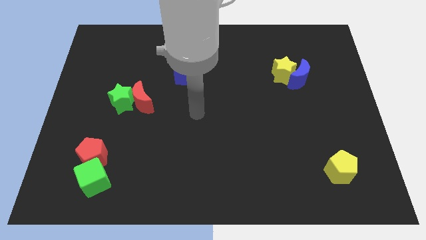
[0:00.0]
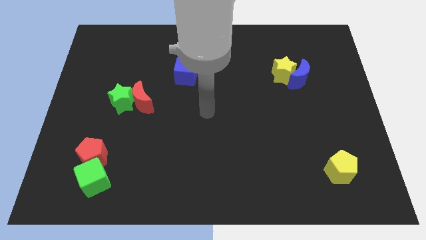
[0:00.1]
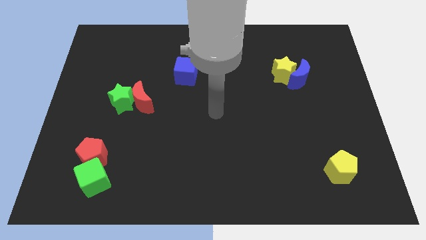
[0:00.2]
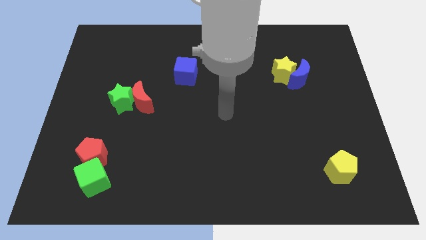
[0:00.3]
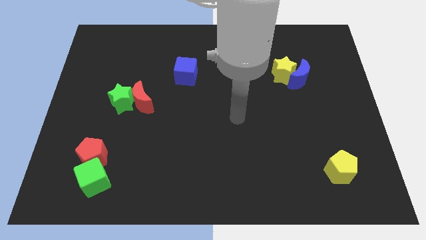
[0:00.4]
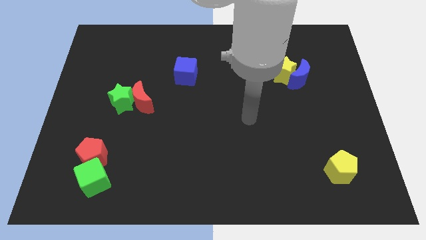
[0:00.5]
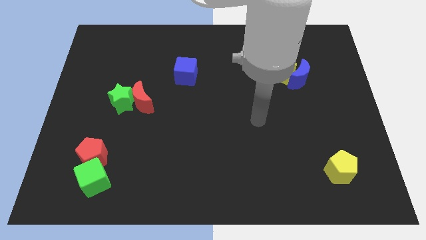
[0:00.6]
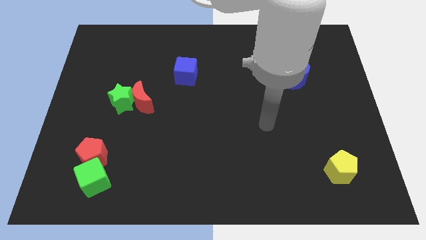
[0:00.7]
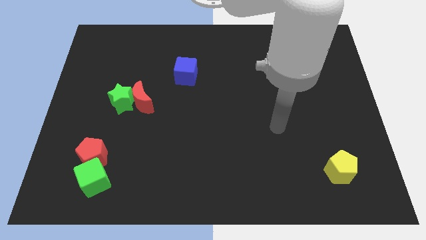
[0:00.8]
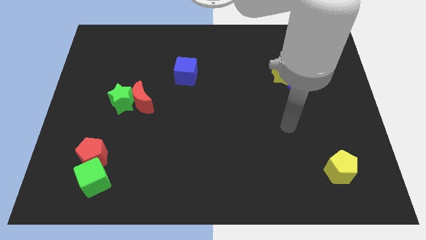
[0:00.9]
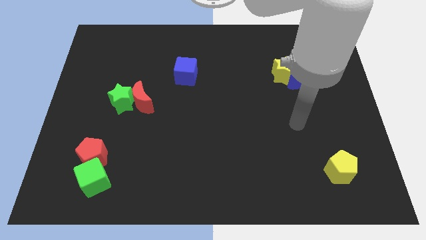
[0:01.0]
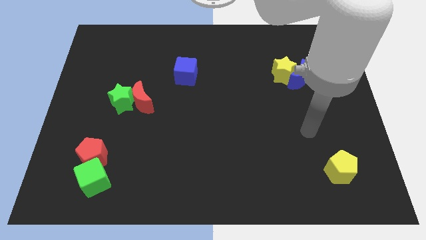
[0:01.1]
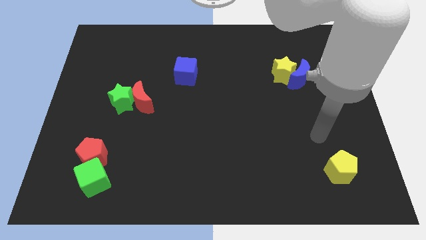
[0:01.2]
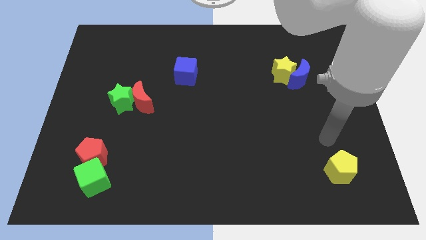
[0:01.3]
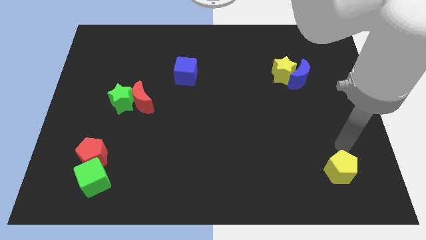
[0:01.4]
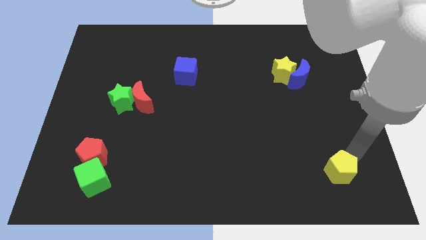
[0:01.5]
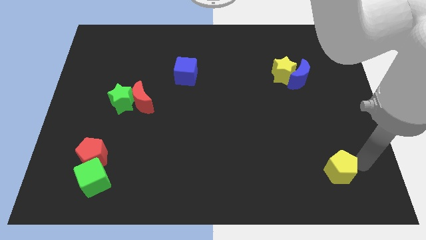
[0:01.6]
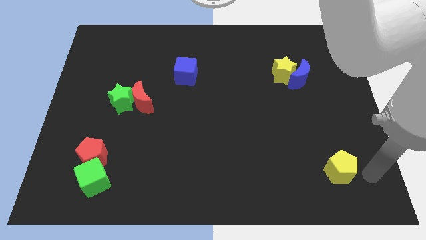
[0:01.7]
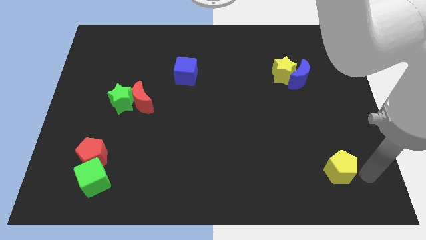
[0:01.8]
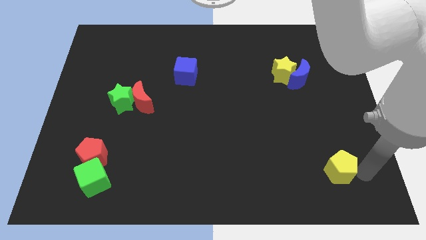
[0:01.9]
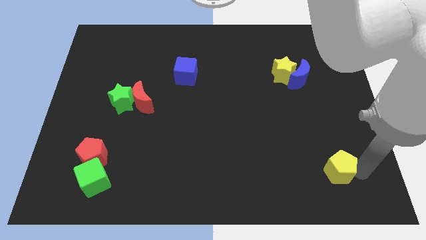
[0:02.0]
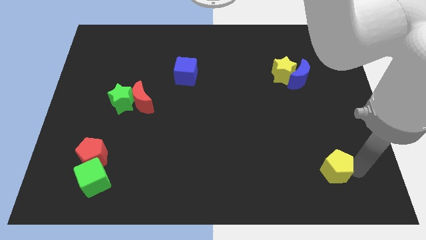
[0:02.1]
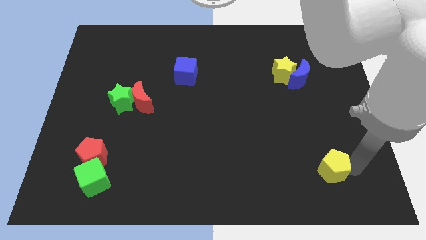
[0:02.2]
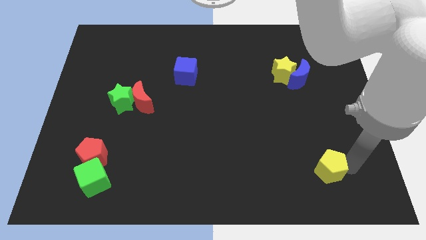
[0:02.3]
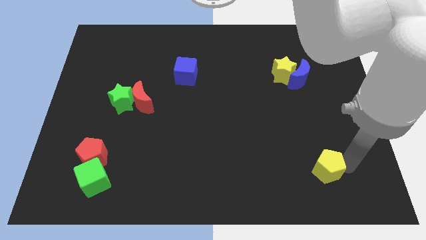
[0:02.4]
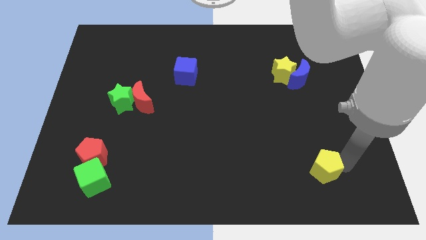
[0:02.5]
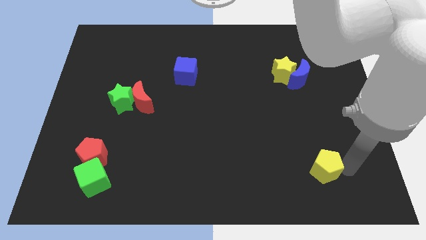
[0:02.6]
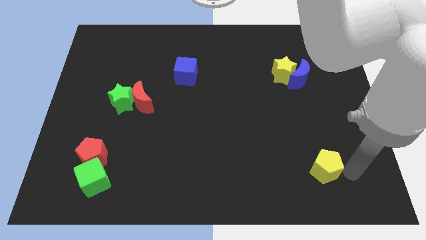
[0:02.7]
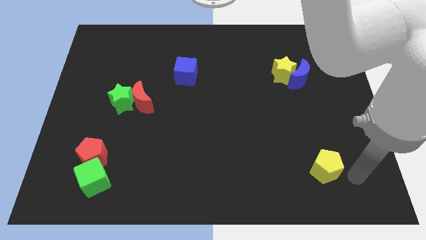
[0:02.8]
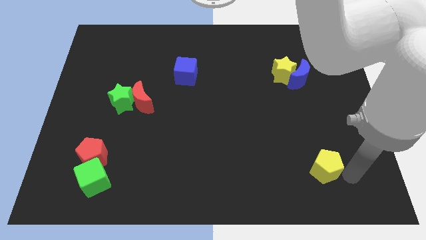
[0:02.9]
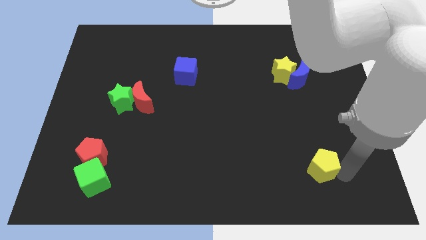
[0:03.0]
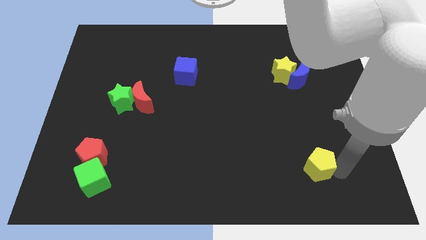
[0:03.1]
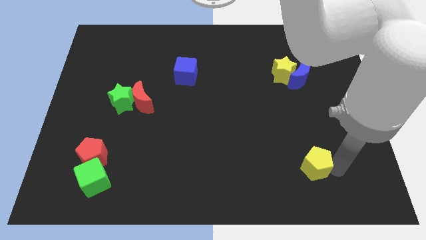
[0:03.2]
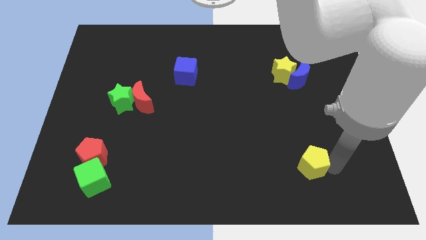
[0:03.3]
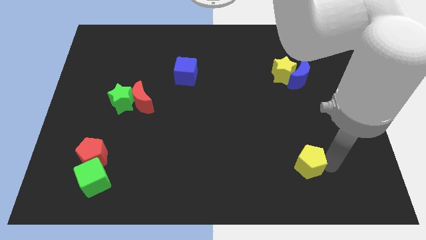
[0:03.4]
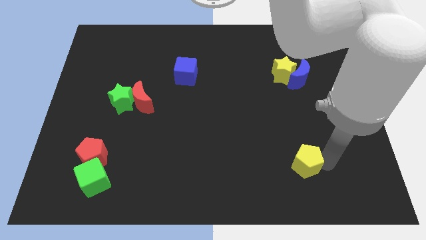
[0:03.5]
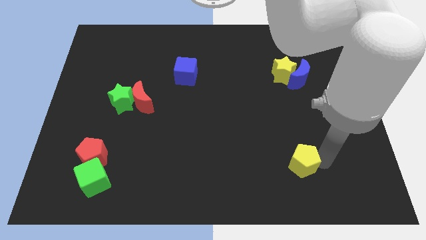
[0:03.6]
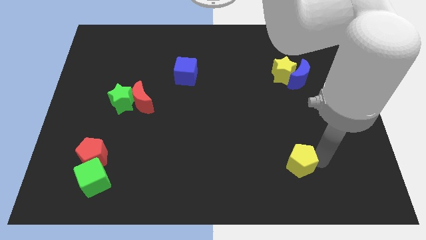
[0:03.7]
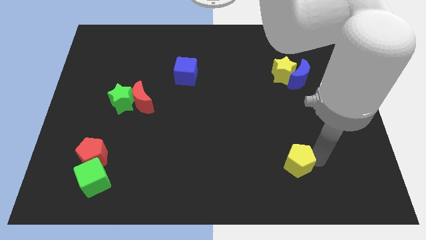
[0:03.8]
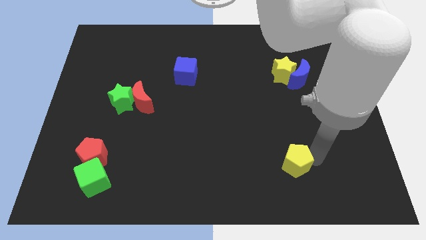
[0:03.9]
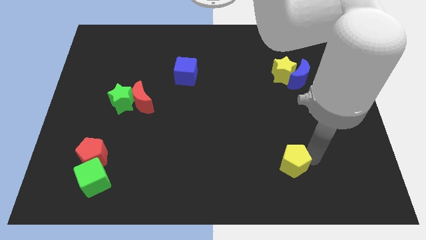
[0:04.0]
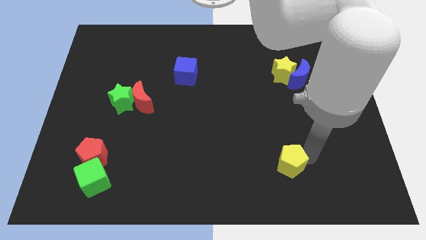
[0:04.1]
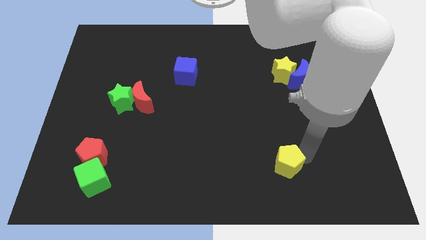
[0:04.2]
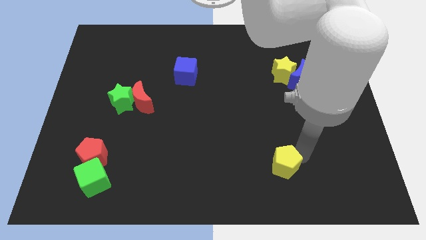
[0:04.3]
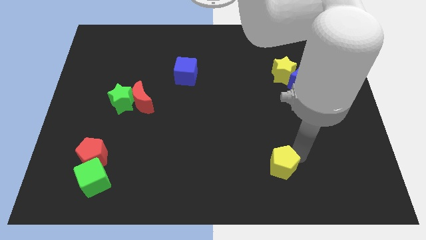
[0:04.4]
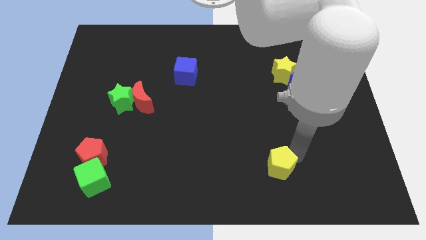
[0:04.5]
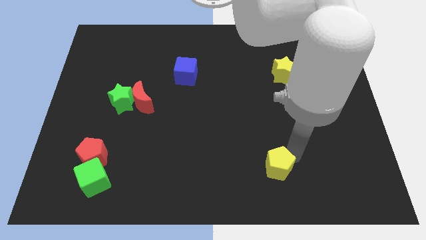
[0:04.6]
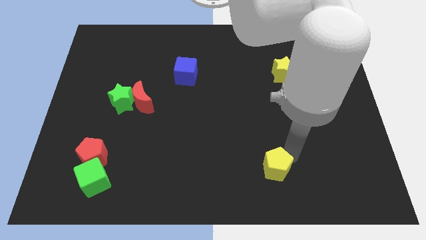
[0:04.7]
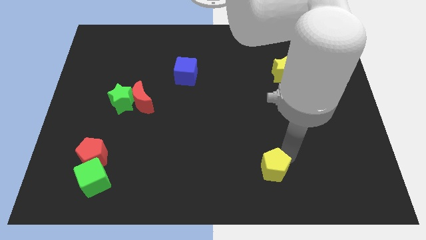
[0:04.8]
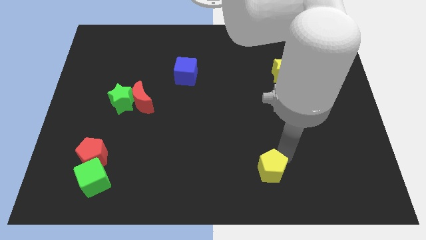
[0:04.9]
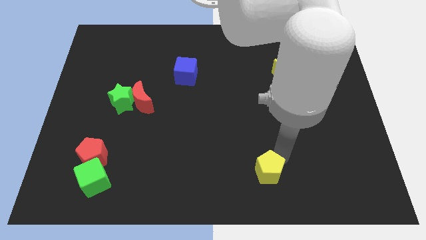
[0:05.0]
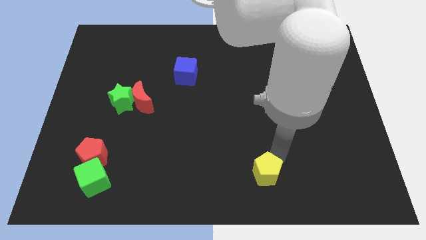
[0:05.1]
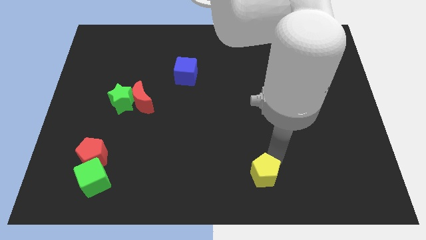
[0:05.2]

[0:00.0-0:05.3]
slide the yellow pentagon to the bottom side

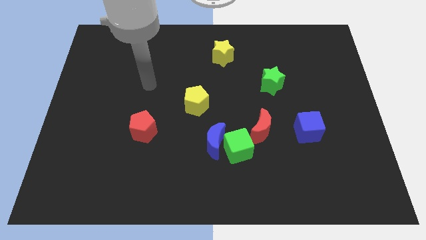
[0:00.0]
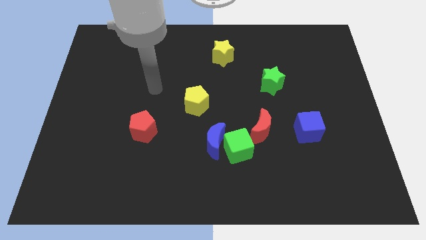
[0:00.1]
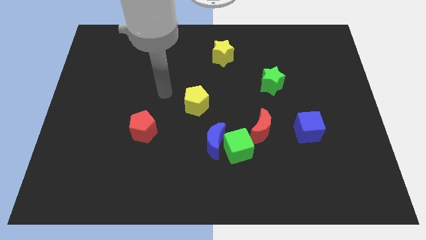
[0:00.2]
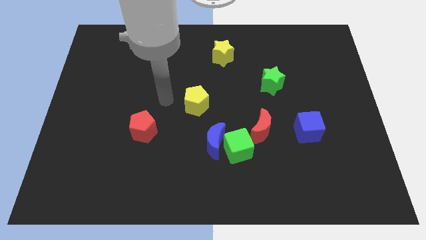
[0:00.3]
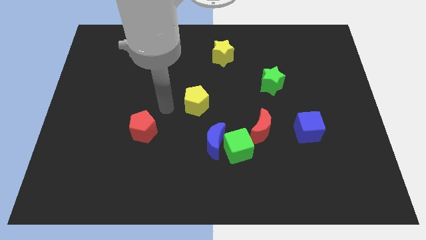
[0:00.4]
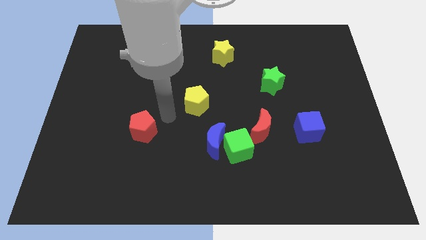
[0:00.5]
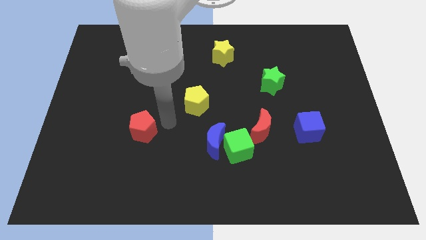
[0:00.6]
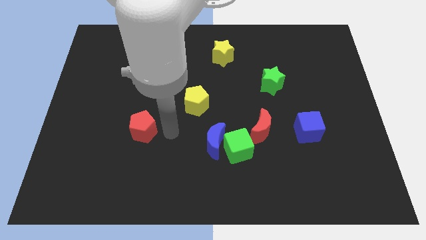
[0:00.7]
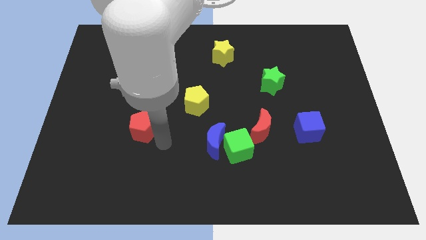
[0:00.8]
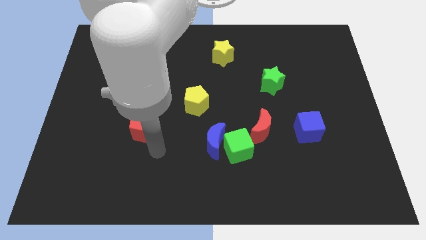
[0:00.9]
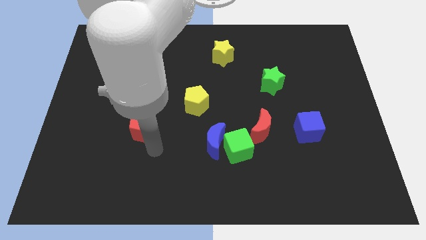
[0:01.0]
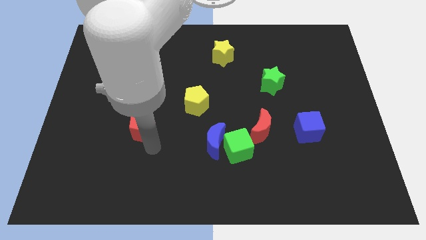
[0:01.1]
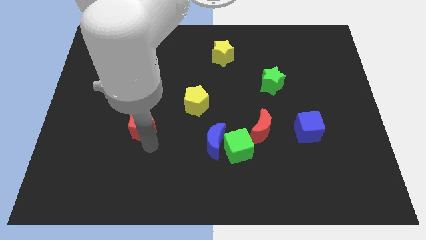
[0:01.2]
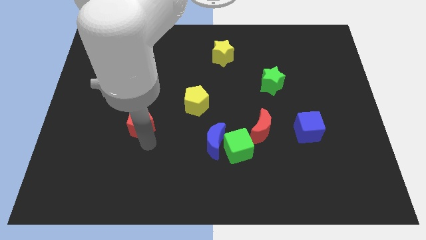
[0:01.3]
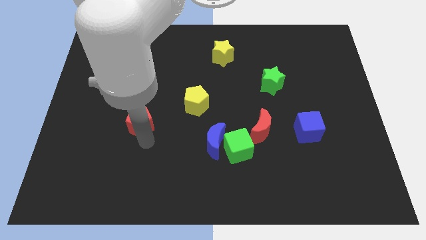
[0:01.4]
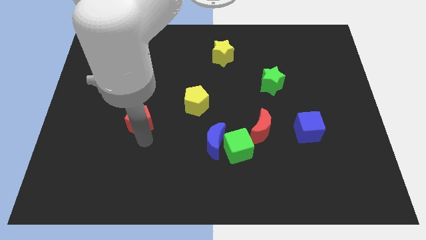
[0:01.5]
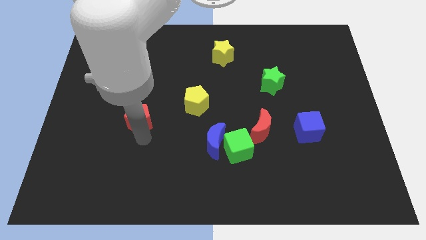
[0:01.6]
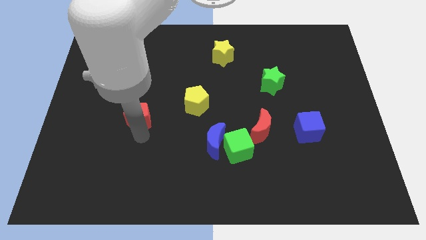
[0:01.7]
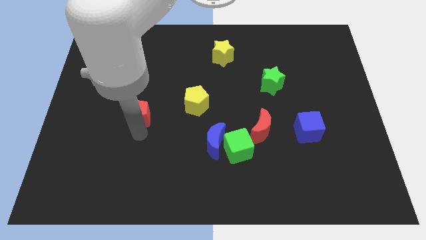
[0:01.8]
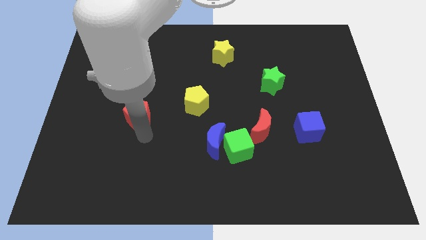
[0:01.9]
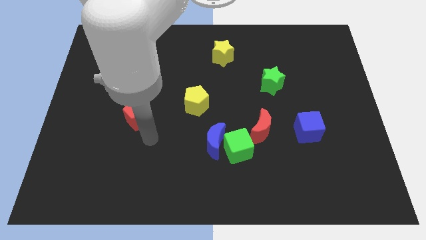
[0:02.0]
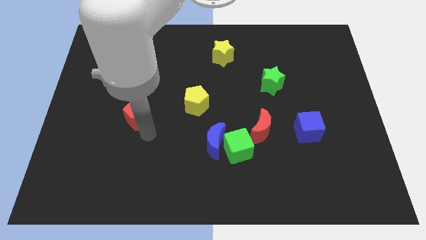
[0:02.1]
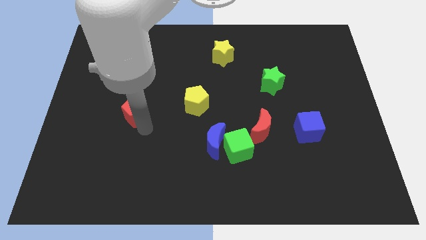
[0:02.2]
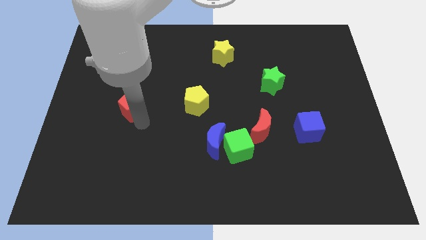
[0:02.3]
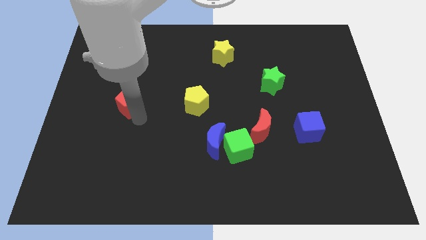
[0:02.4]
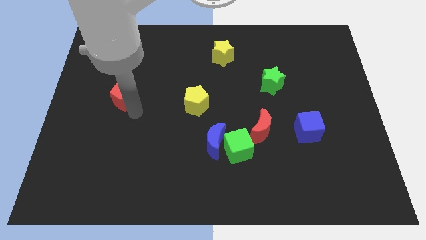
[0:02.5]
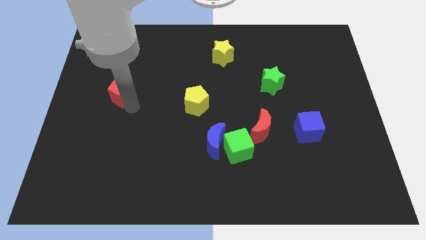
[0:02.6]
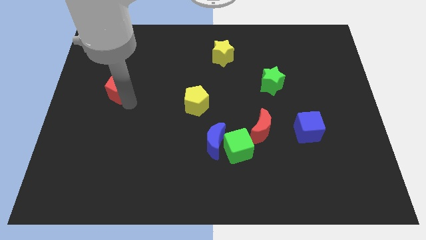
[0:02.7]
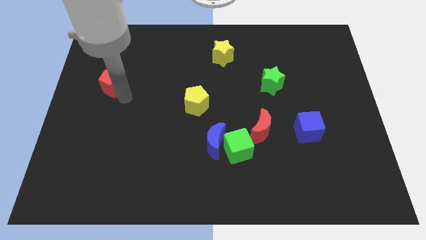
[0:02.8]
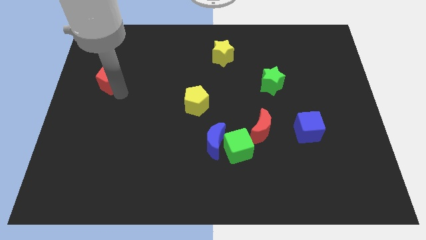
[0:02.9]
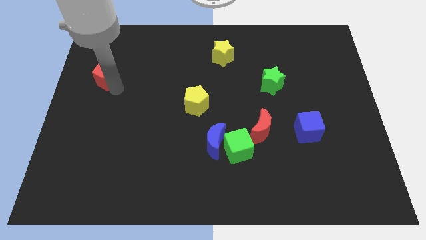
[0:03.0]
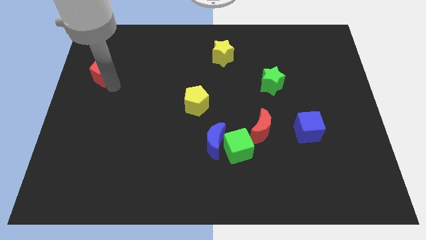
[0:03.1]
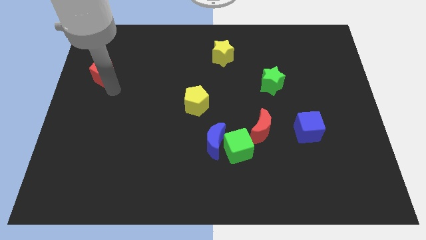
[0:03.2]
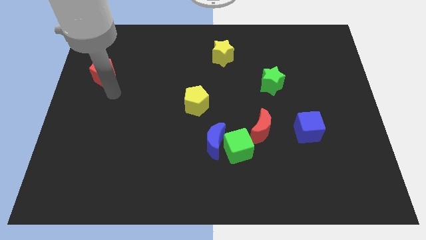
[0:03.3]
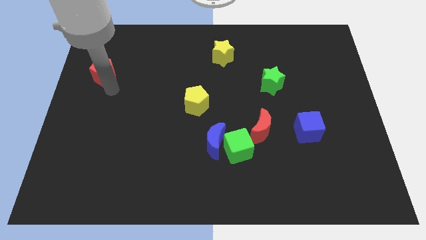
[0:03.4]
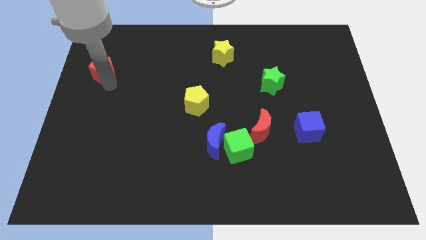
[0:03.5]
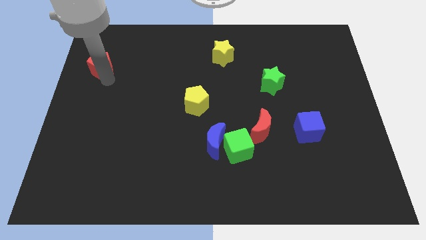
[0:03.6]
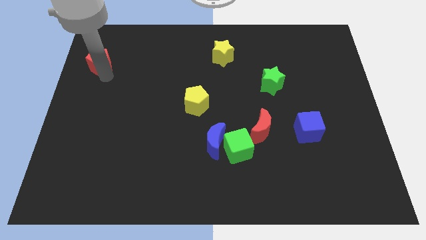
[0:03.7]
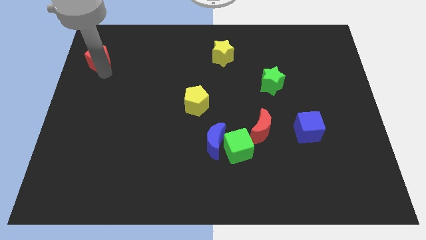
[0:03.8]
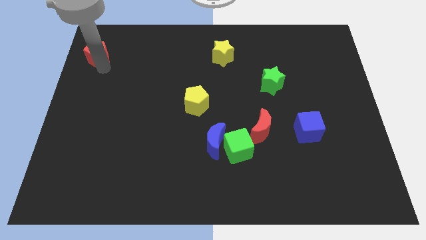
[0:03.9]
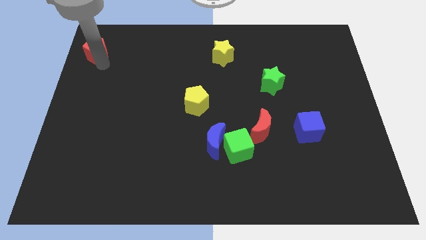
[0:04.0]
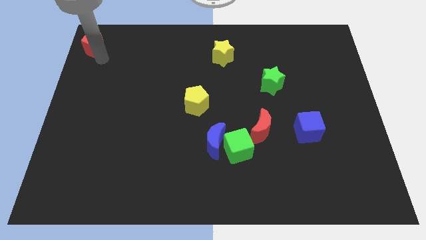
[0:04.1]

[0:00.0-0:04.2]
slide the red pentagon to the top left
